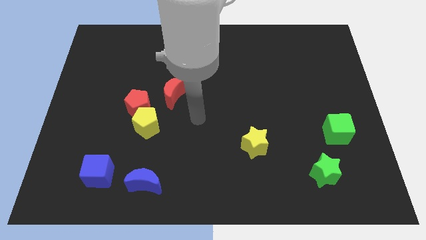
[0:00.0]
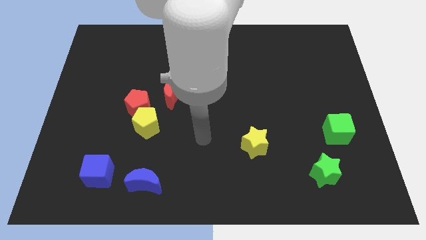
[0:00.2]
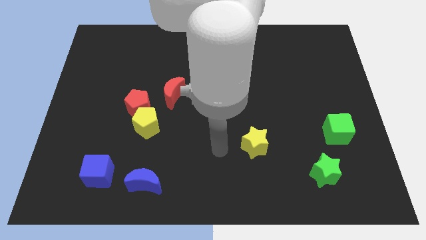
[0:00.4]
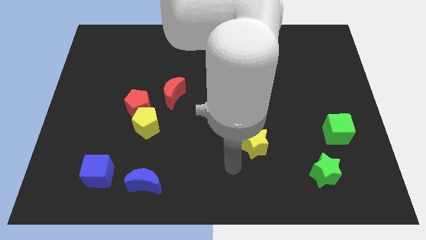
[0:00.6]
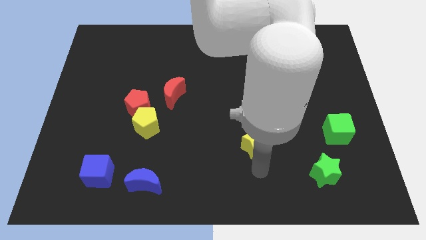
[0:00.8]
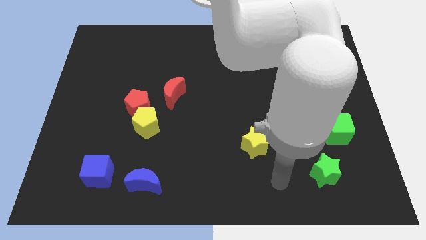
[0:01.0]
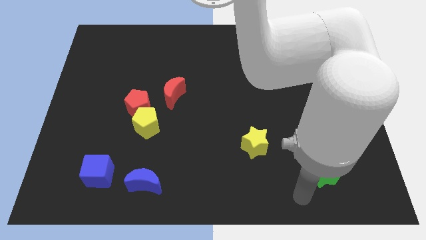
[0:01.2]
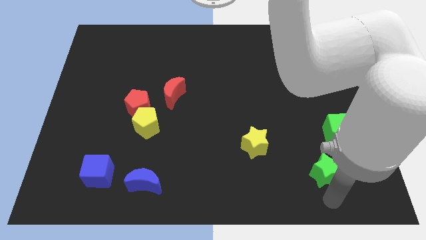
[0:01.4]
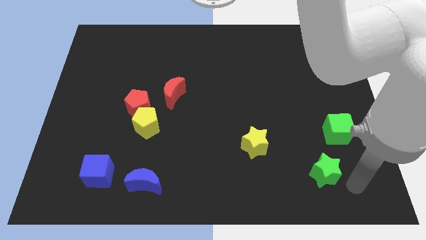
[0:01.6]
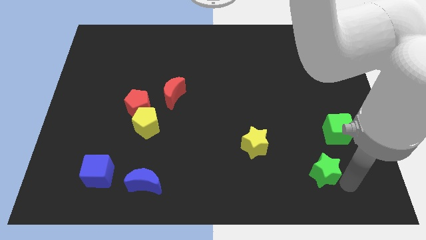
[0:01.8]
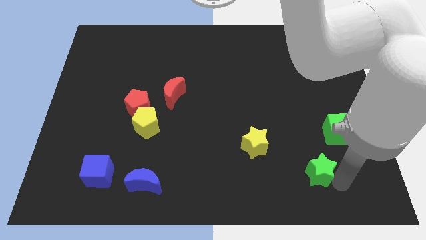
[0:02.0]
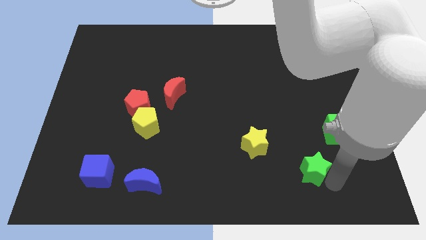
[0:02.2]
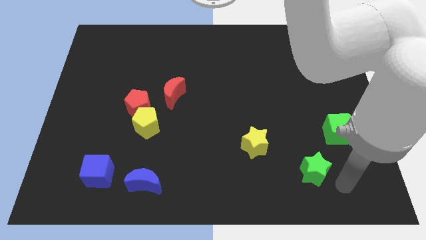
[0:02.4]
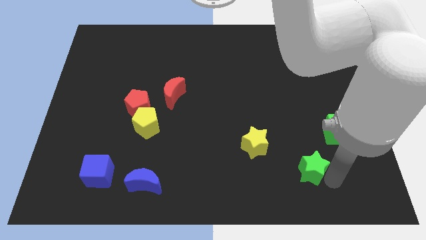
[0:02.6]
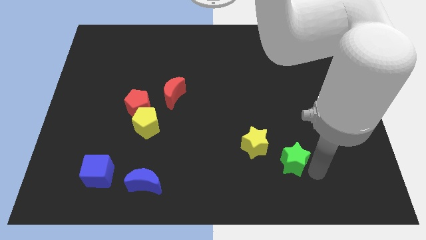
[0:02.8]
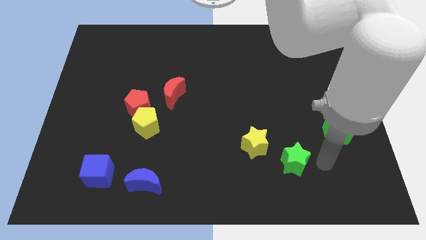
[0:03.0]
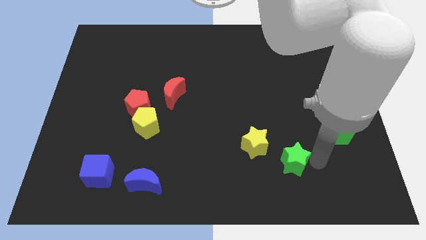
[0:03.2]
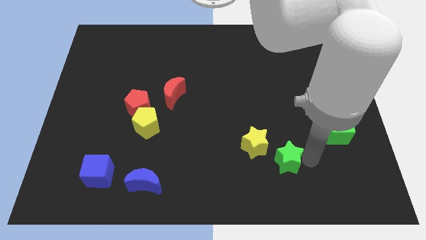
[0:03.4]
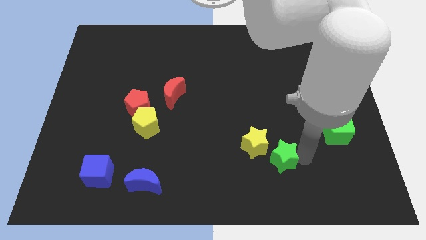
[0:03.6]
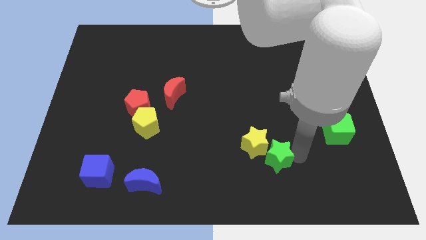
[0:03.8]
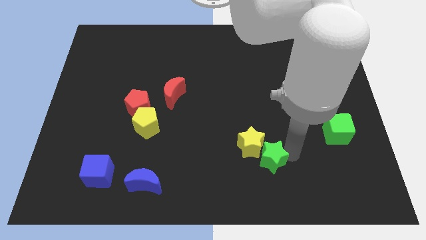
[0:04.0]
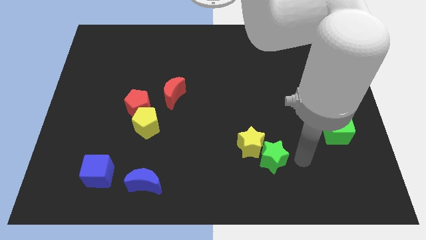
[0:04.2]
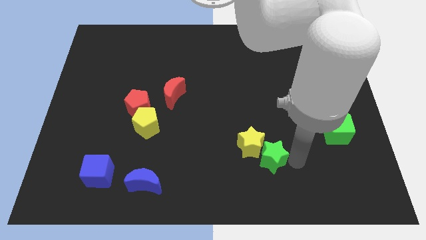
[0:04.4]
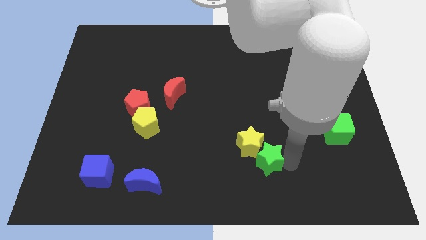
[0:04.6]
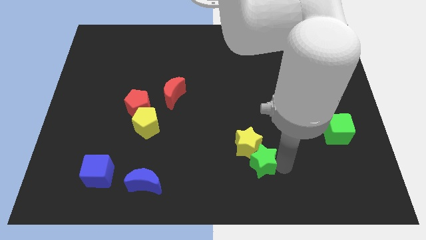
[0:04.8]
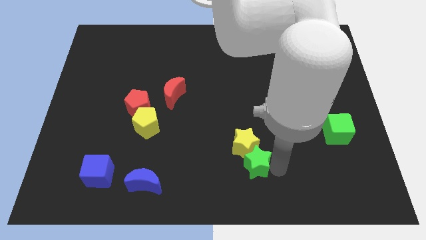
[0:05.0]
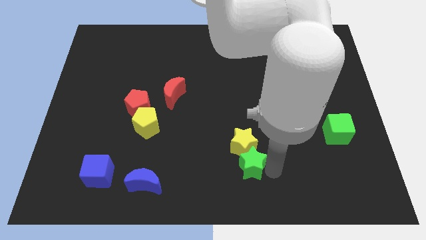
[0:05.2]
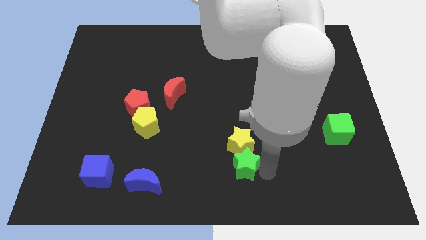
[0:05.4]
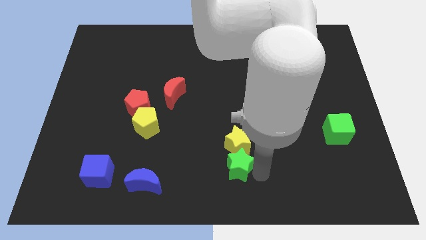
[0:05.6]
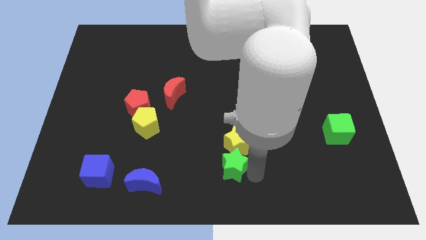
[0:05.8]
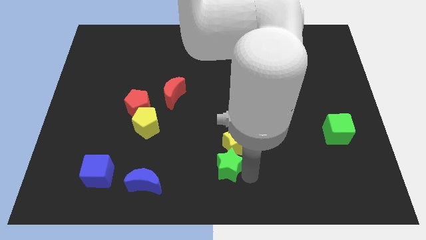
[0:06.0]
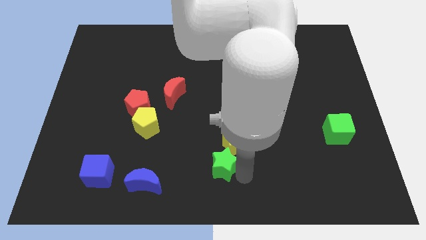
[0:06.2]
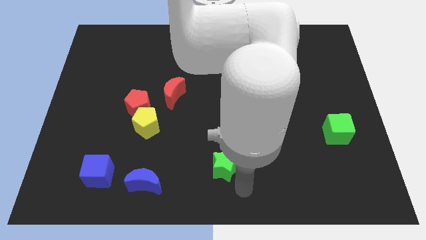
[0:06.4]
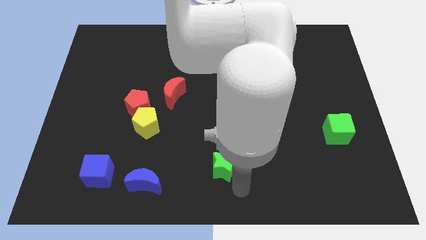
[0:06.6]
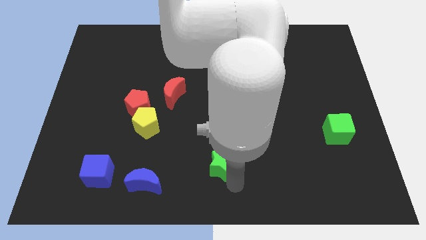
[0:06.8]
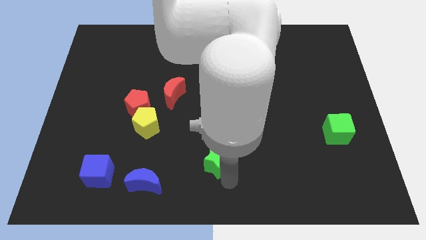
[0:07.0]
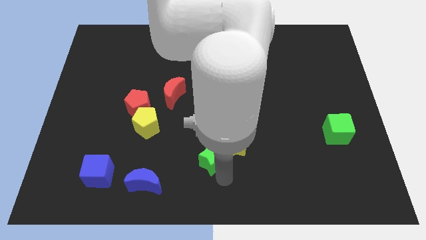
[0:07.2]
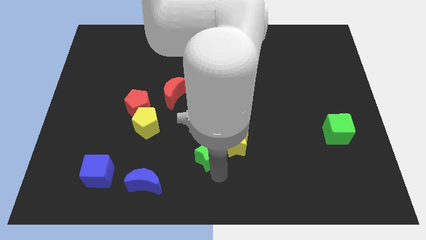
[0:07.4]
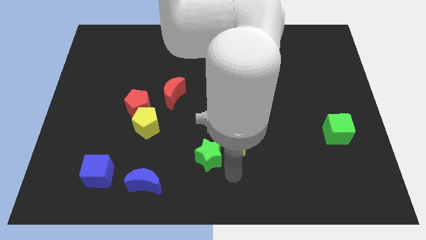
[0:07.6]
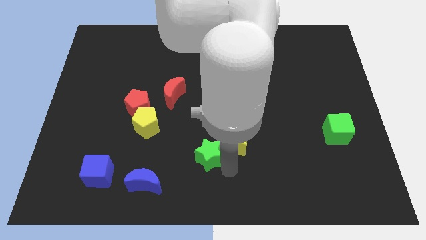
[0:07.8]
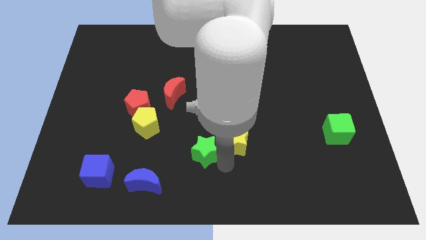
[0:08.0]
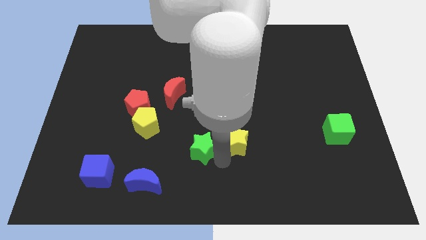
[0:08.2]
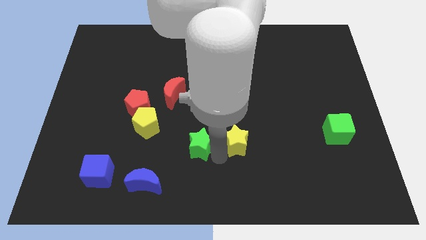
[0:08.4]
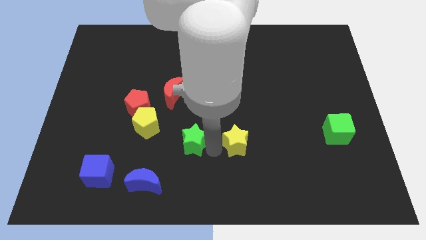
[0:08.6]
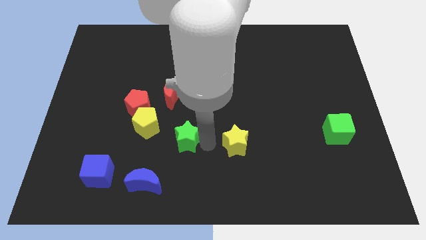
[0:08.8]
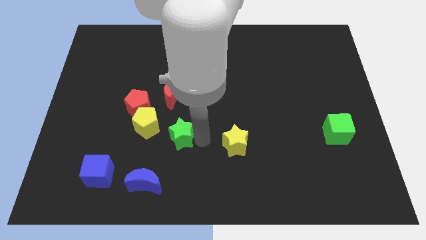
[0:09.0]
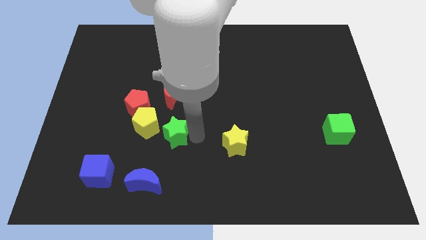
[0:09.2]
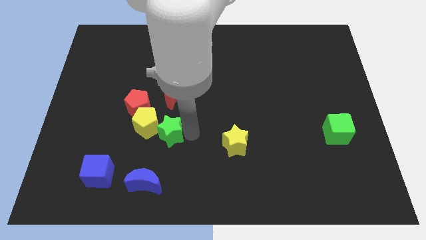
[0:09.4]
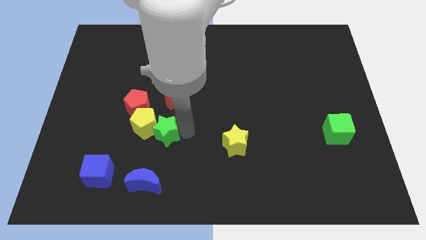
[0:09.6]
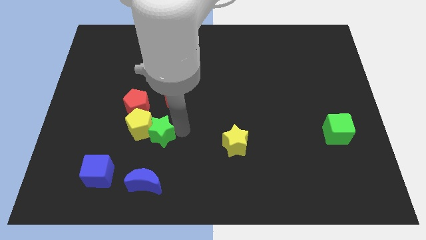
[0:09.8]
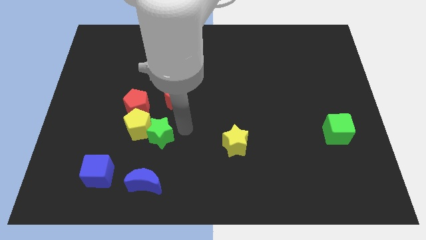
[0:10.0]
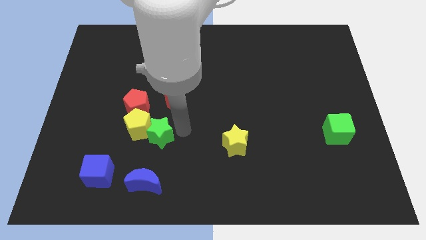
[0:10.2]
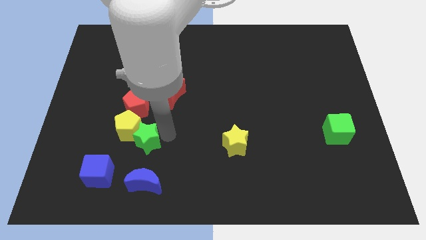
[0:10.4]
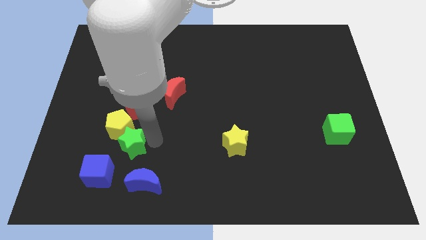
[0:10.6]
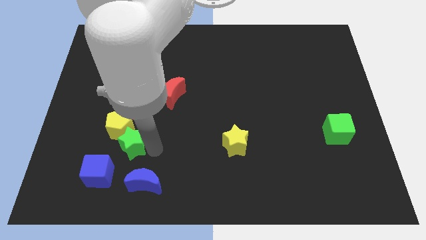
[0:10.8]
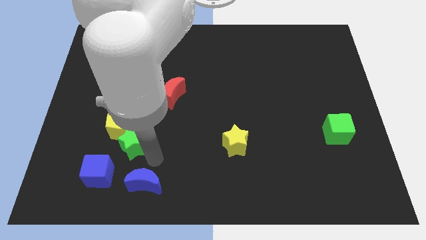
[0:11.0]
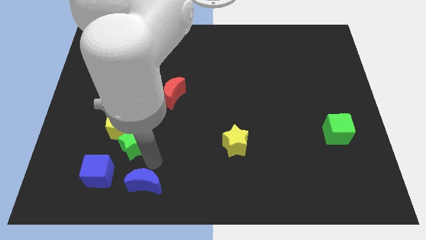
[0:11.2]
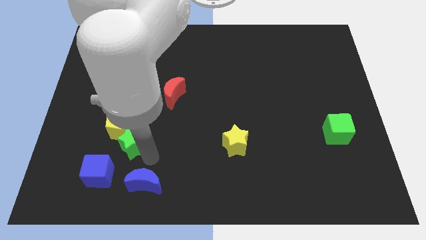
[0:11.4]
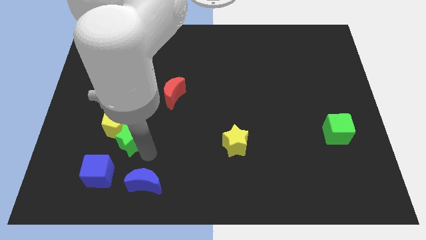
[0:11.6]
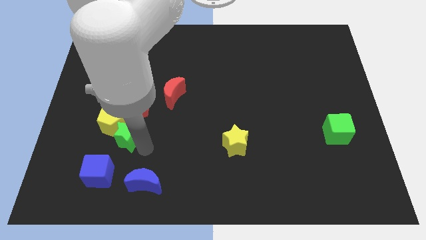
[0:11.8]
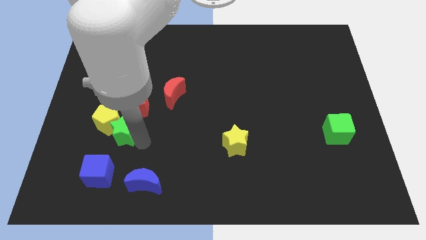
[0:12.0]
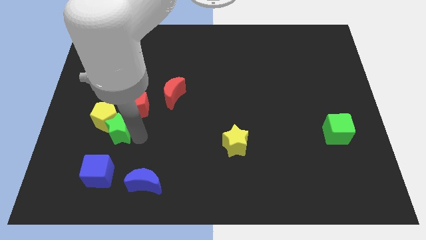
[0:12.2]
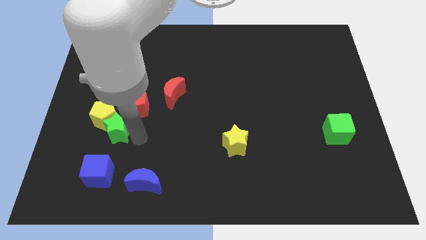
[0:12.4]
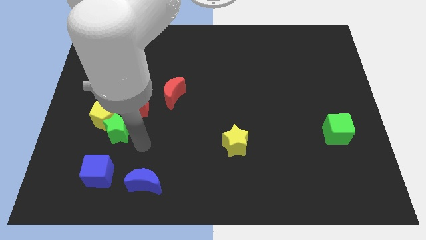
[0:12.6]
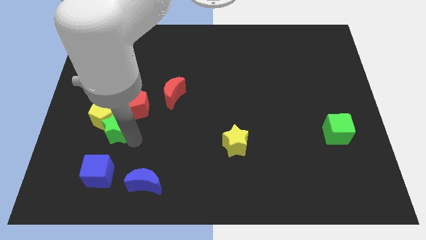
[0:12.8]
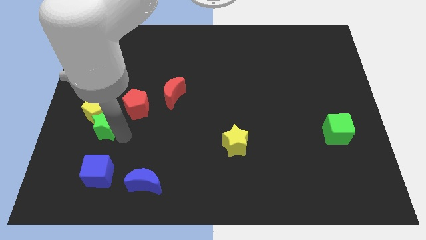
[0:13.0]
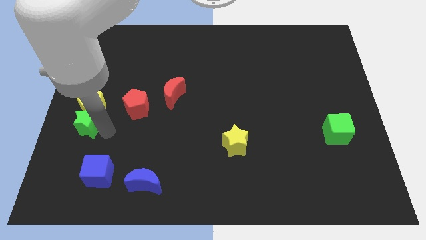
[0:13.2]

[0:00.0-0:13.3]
push the green star to the left side of the board
